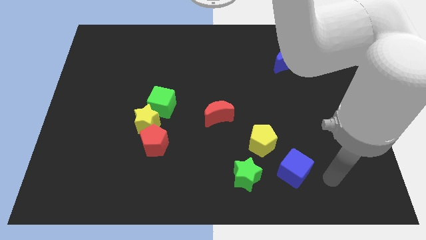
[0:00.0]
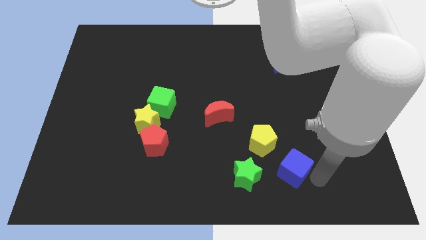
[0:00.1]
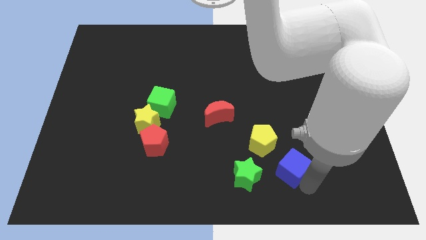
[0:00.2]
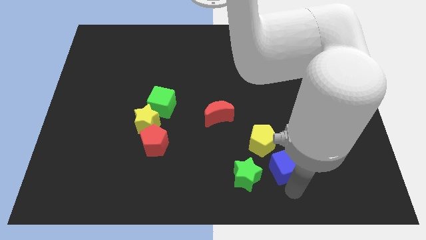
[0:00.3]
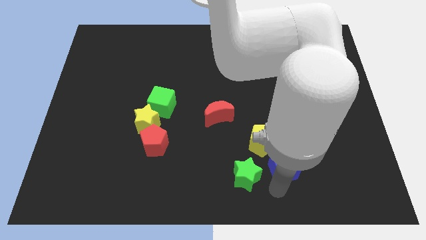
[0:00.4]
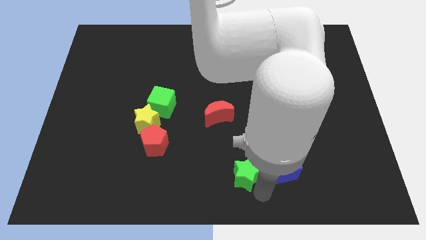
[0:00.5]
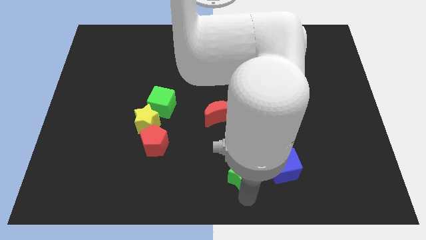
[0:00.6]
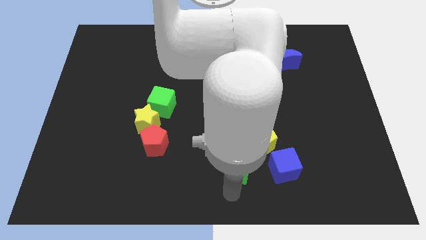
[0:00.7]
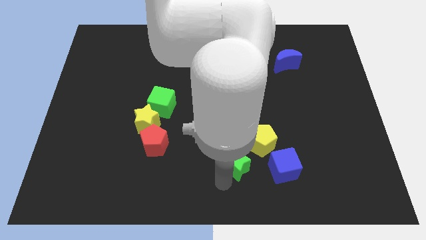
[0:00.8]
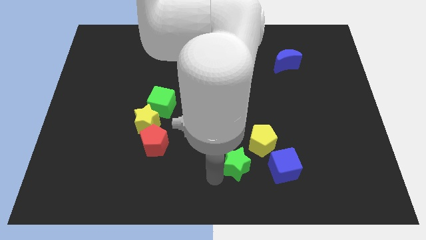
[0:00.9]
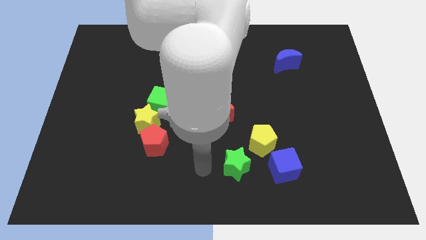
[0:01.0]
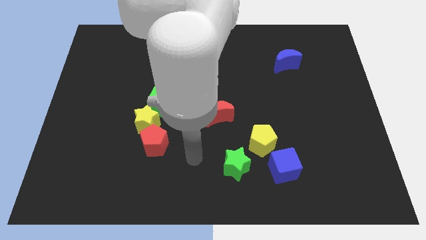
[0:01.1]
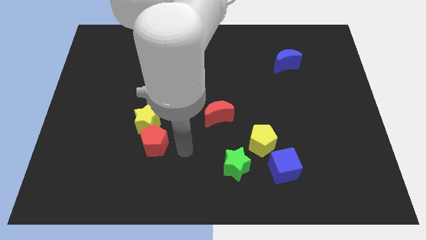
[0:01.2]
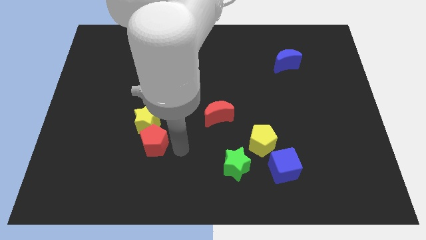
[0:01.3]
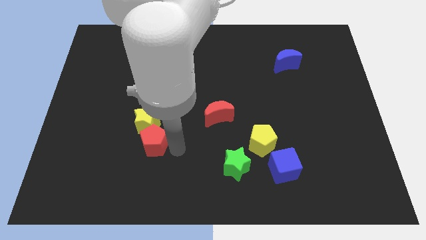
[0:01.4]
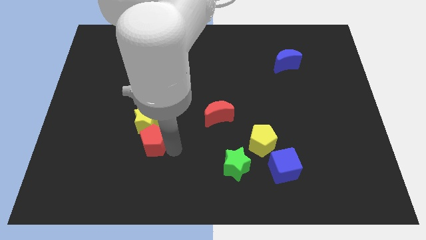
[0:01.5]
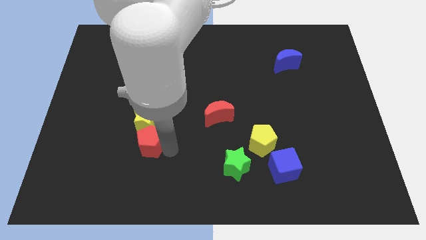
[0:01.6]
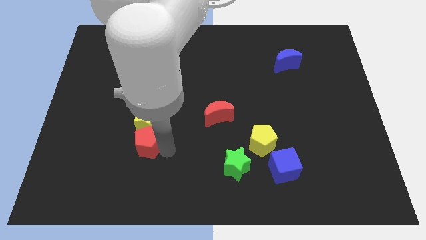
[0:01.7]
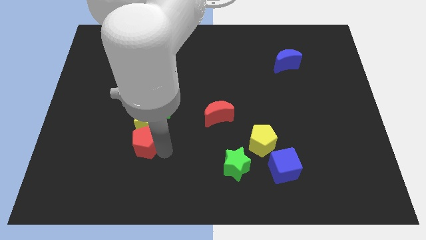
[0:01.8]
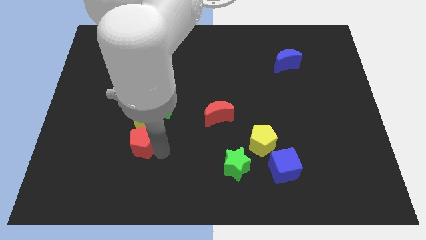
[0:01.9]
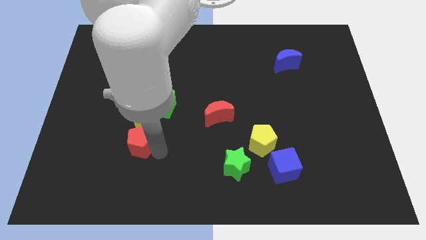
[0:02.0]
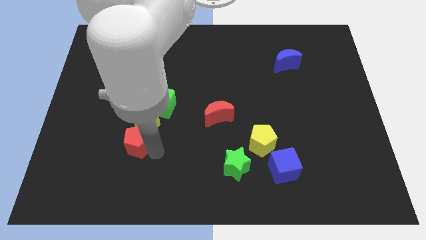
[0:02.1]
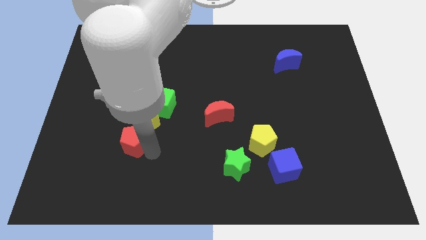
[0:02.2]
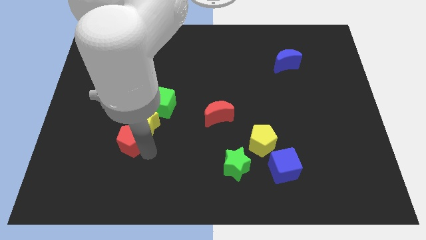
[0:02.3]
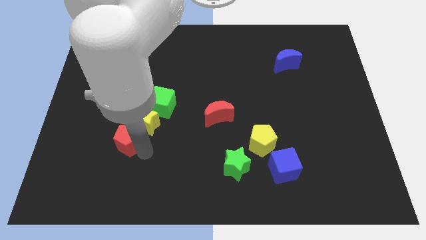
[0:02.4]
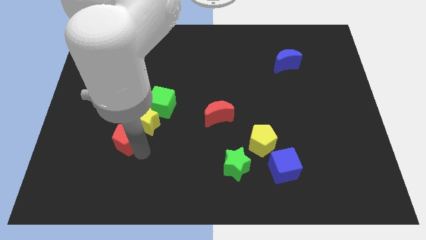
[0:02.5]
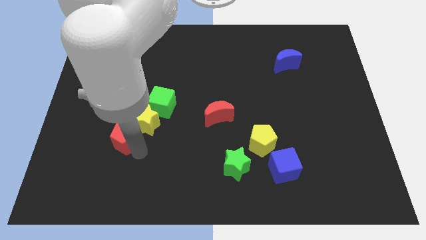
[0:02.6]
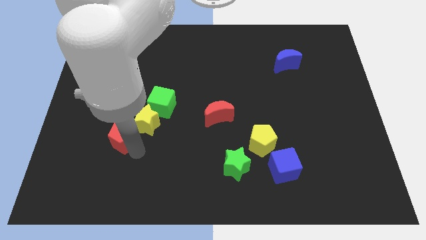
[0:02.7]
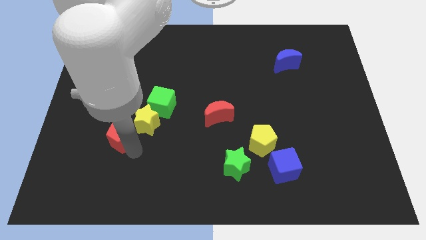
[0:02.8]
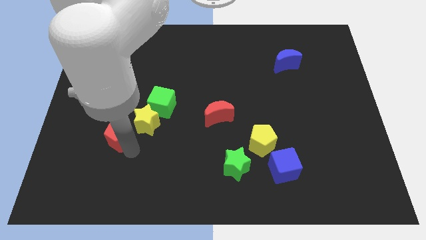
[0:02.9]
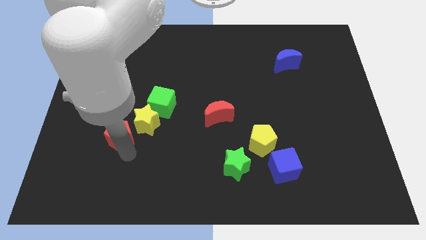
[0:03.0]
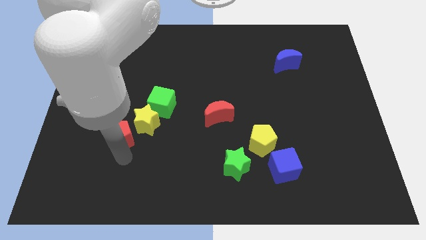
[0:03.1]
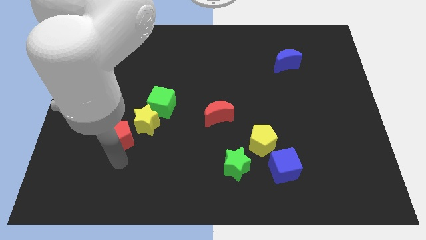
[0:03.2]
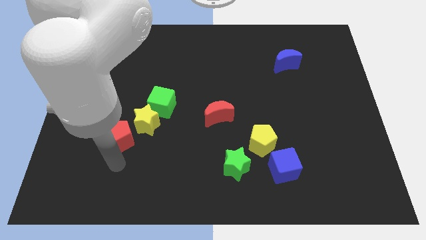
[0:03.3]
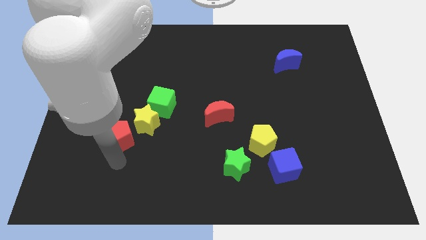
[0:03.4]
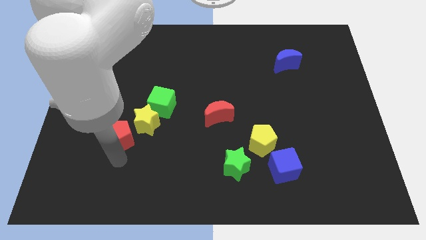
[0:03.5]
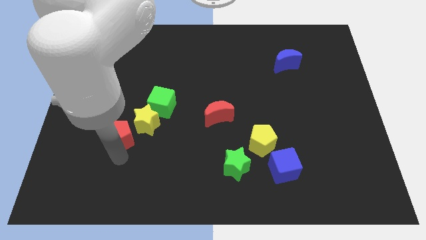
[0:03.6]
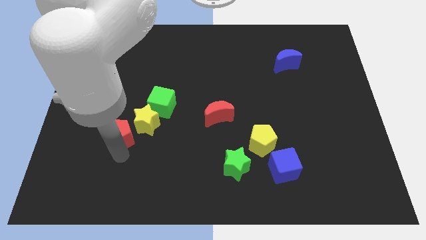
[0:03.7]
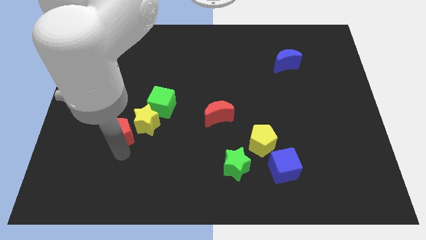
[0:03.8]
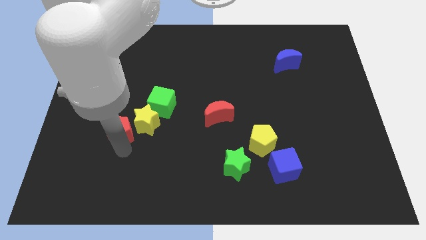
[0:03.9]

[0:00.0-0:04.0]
slide the red pentagon up and then left slightly

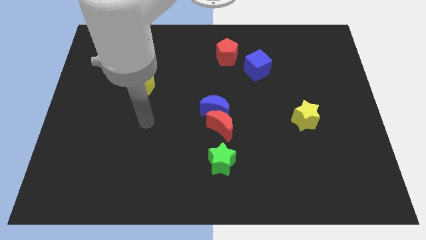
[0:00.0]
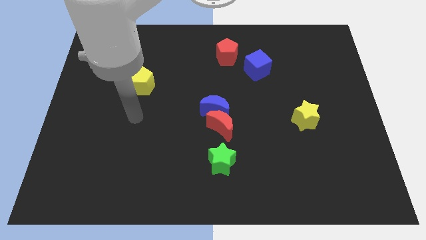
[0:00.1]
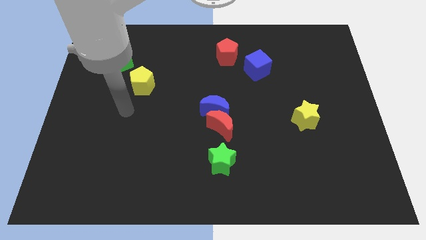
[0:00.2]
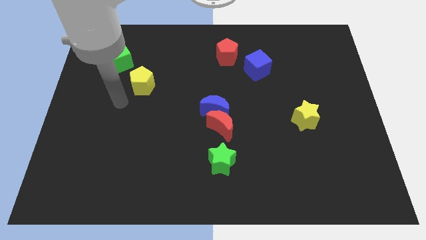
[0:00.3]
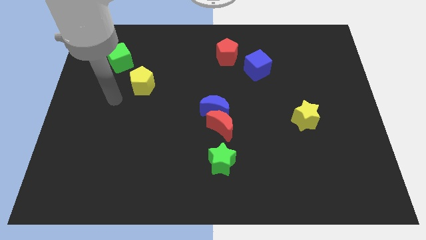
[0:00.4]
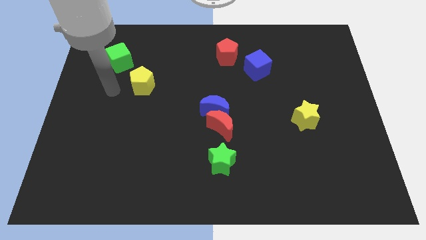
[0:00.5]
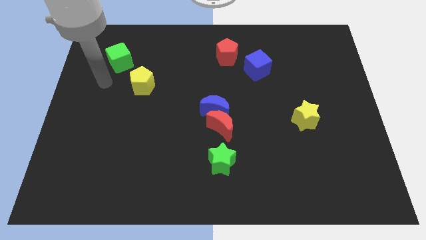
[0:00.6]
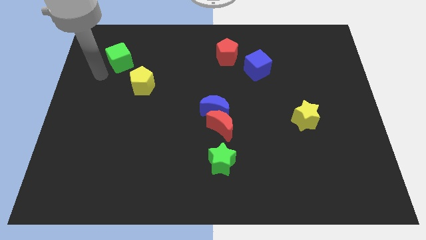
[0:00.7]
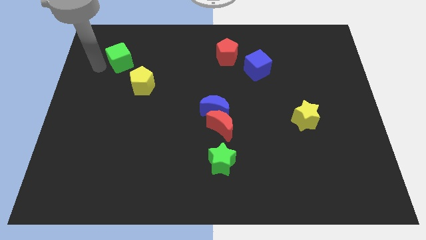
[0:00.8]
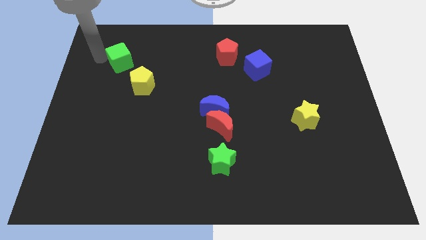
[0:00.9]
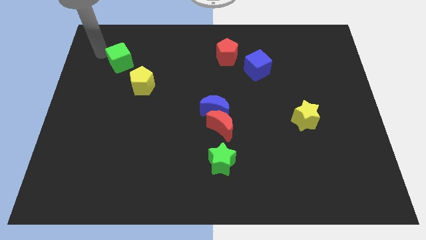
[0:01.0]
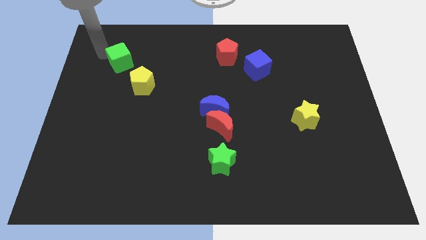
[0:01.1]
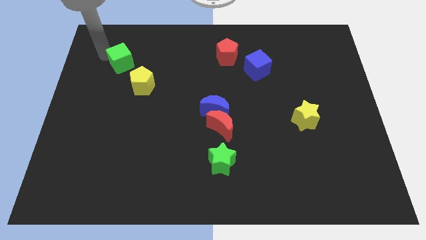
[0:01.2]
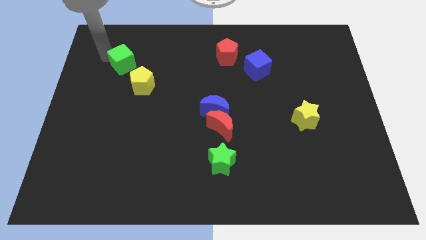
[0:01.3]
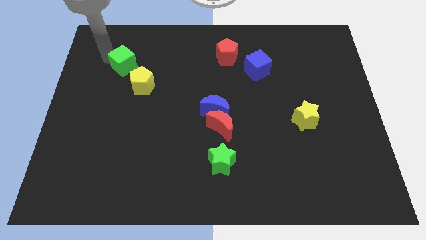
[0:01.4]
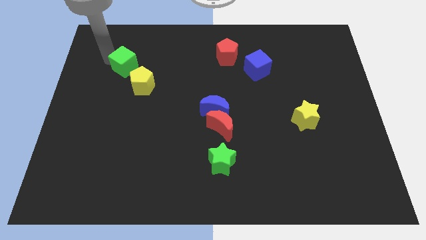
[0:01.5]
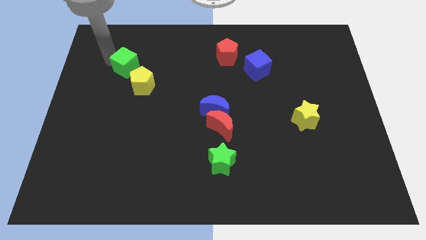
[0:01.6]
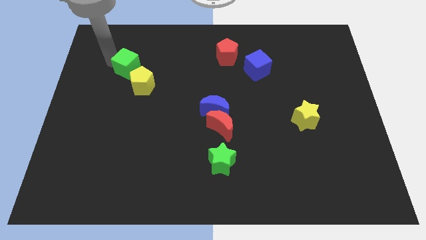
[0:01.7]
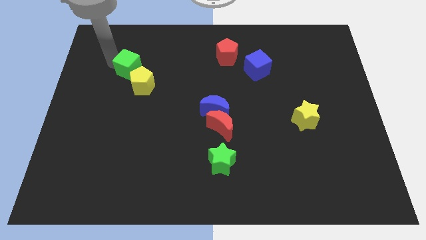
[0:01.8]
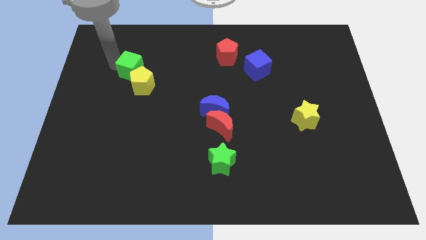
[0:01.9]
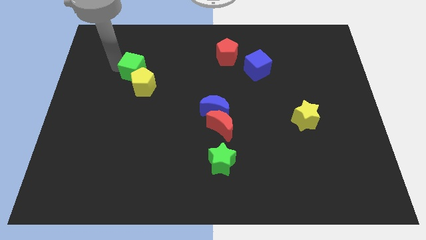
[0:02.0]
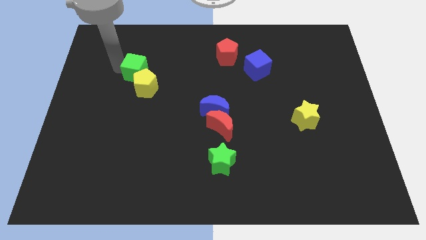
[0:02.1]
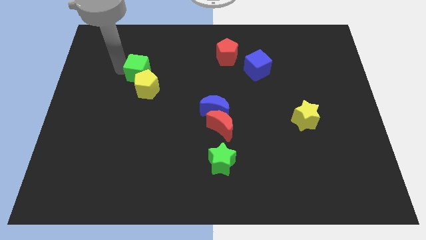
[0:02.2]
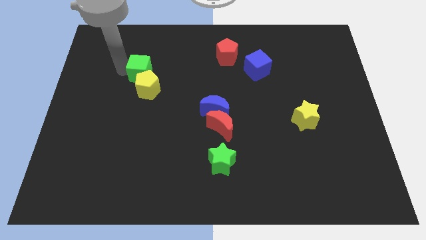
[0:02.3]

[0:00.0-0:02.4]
move the green cube slightly downwards and to the right diagonally

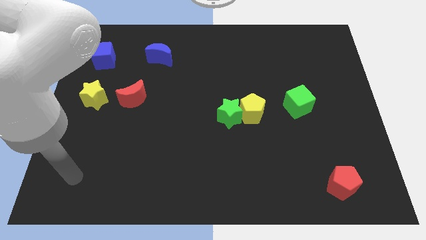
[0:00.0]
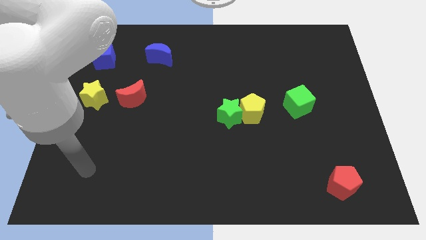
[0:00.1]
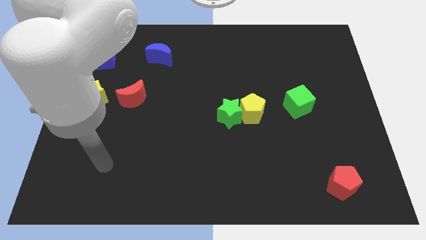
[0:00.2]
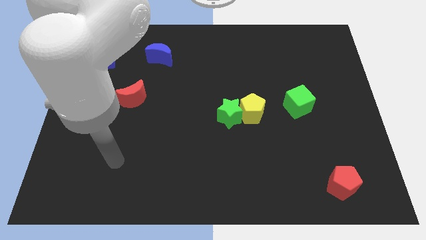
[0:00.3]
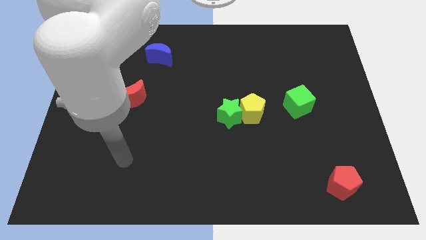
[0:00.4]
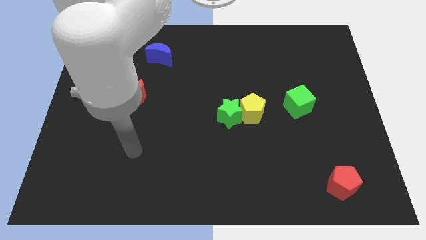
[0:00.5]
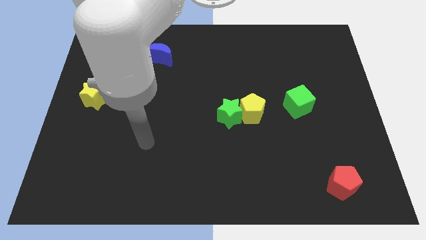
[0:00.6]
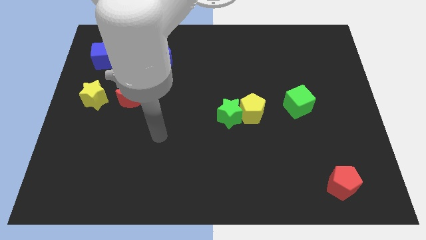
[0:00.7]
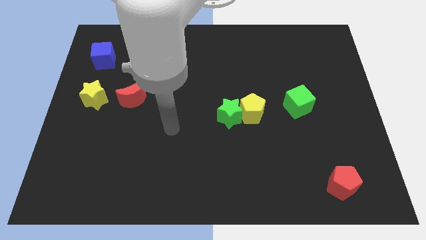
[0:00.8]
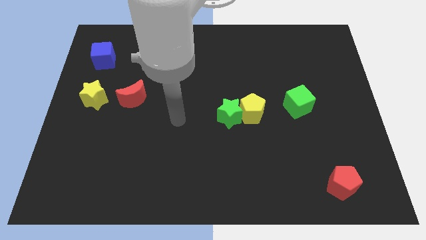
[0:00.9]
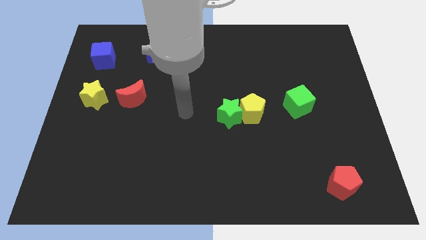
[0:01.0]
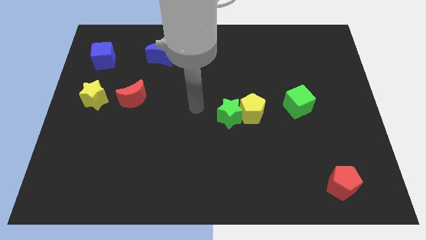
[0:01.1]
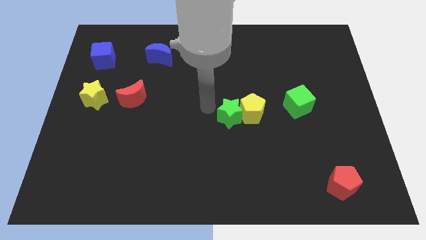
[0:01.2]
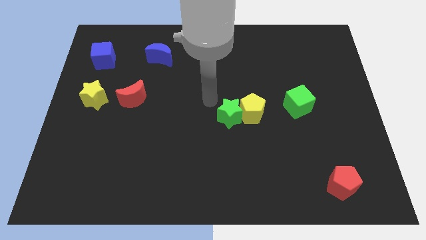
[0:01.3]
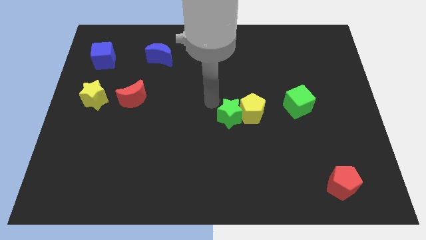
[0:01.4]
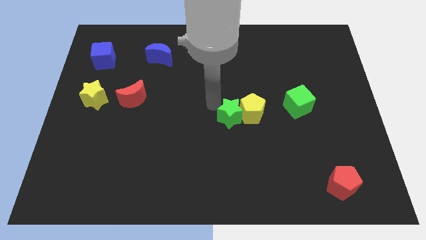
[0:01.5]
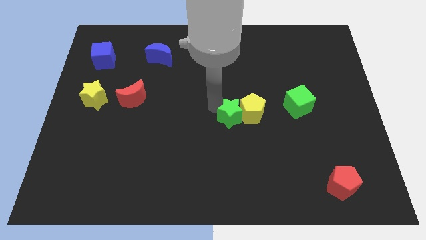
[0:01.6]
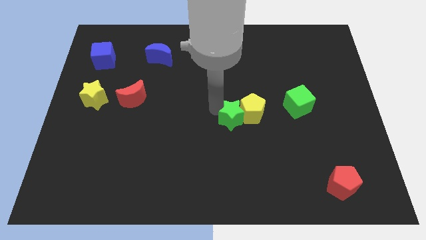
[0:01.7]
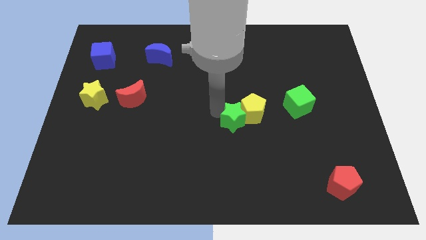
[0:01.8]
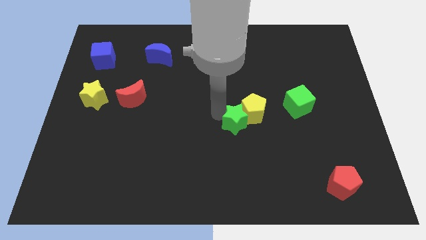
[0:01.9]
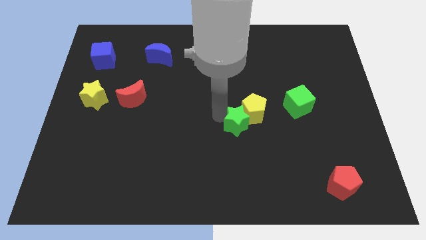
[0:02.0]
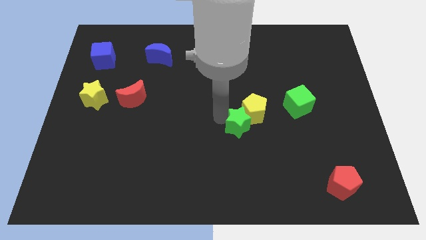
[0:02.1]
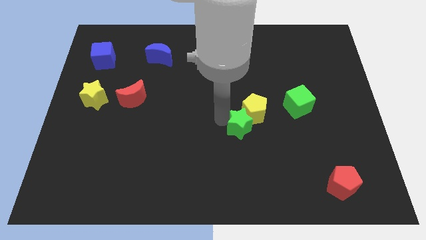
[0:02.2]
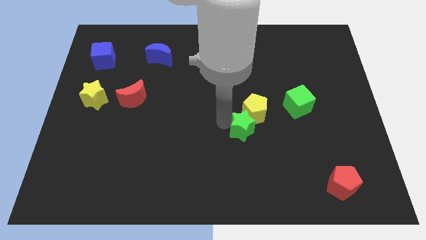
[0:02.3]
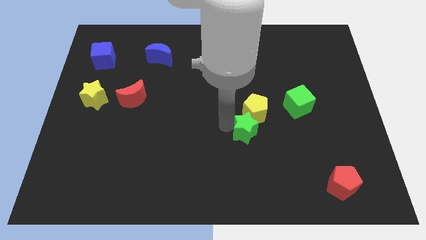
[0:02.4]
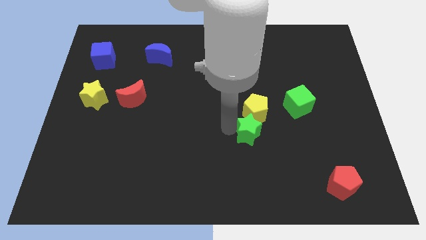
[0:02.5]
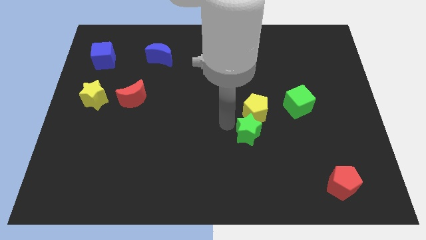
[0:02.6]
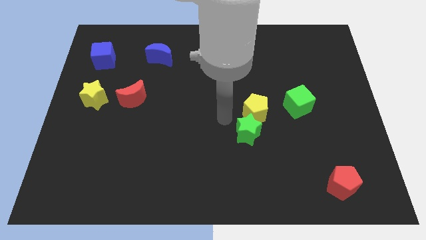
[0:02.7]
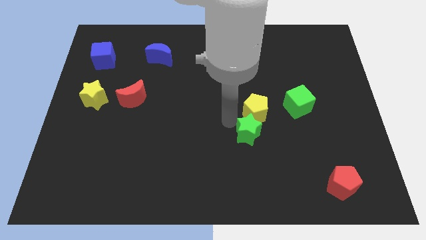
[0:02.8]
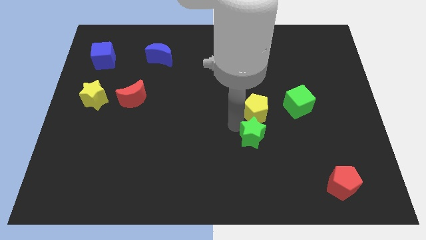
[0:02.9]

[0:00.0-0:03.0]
slide the green star down and then right slightly
